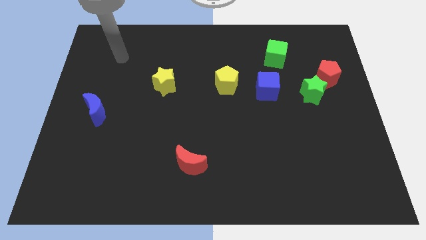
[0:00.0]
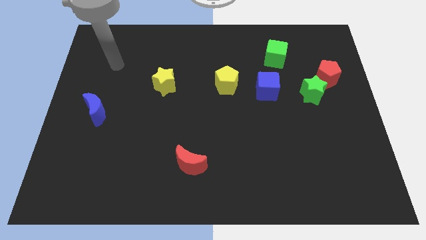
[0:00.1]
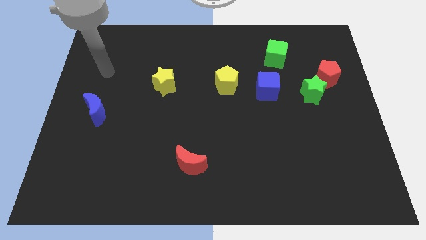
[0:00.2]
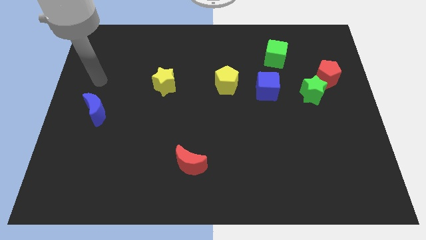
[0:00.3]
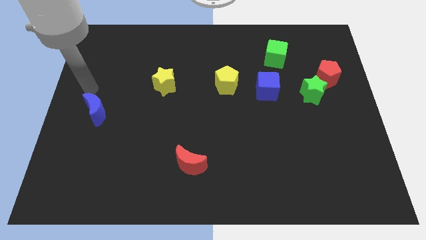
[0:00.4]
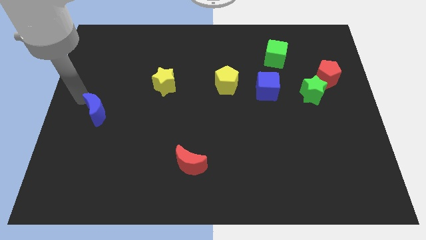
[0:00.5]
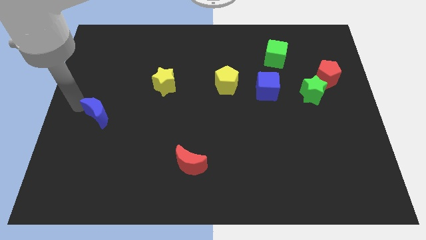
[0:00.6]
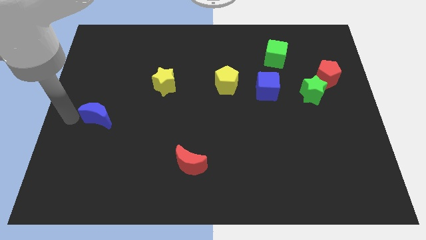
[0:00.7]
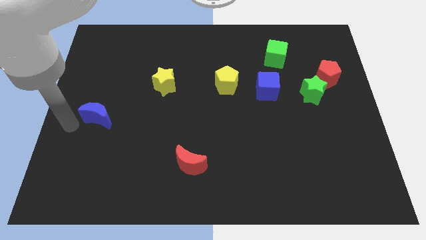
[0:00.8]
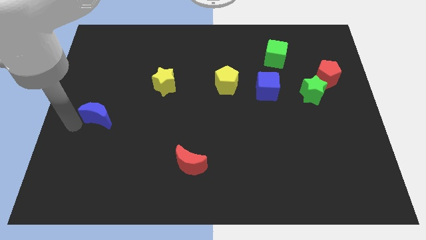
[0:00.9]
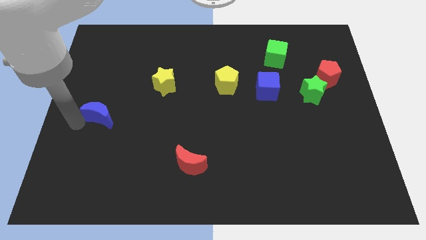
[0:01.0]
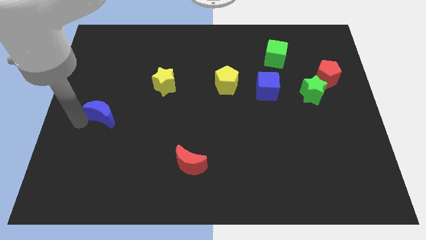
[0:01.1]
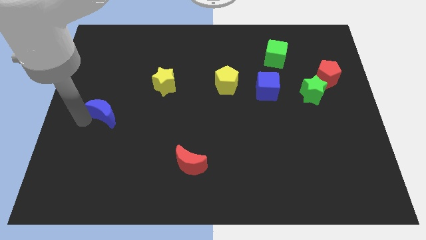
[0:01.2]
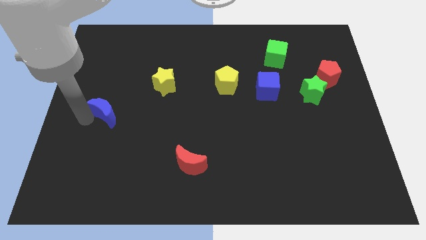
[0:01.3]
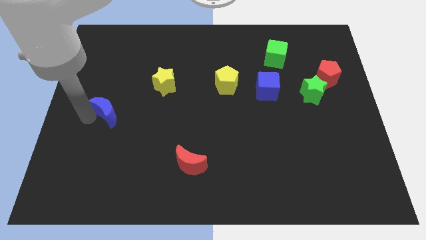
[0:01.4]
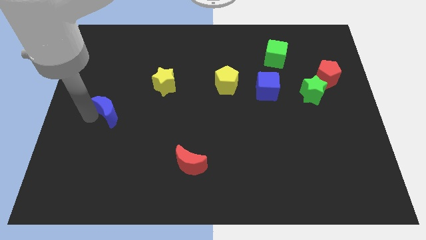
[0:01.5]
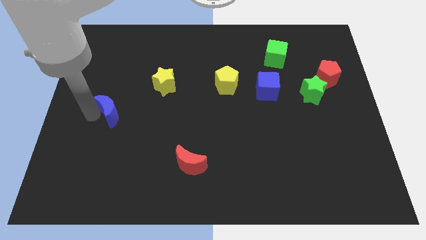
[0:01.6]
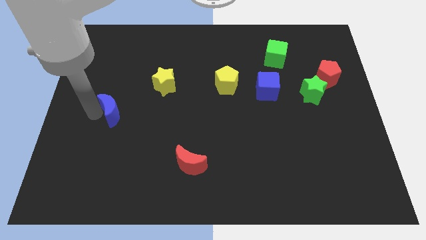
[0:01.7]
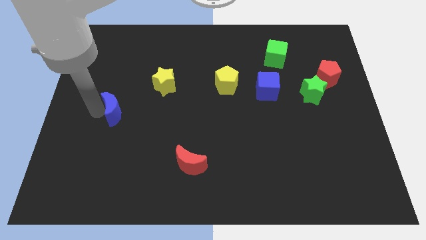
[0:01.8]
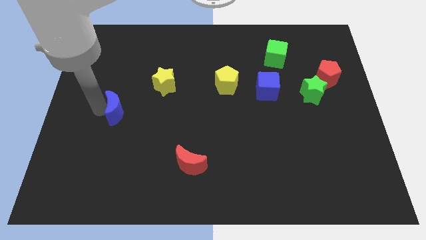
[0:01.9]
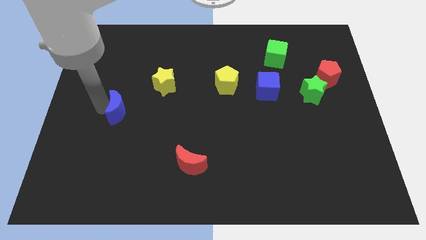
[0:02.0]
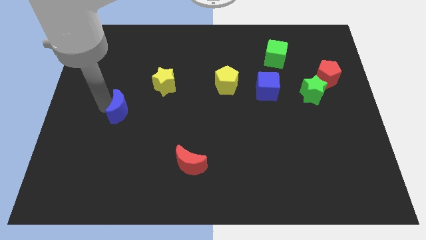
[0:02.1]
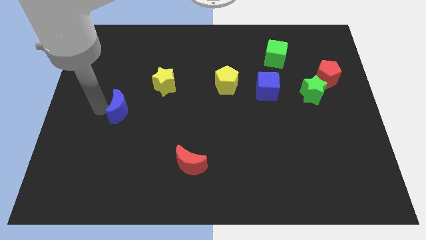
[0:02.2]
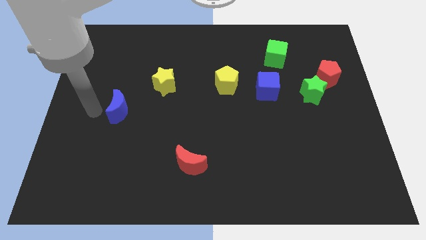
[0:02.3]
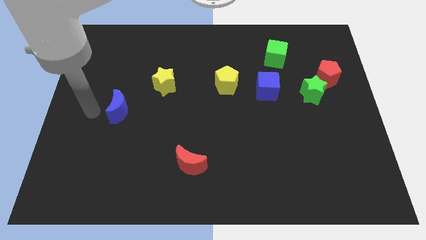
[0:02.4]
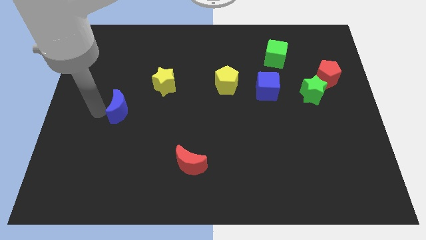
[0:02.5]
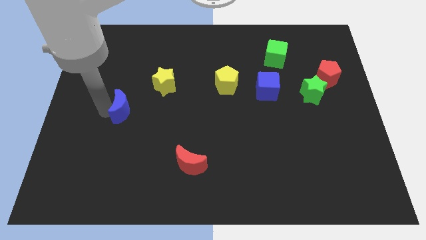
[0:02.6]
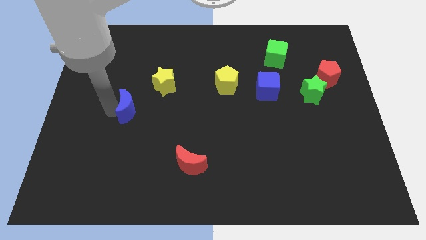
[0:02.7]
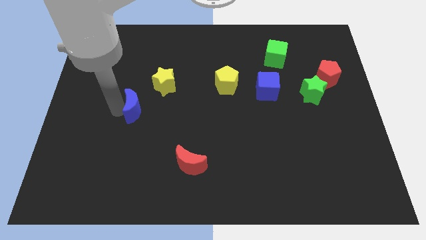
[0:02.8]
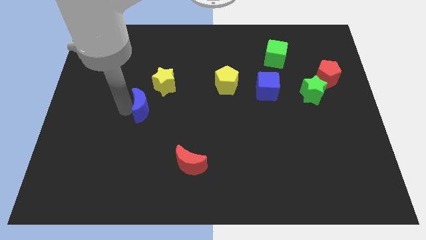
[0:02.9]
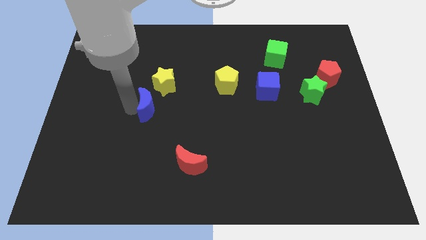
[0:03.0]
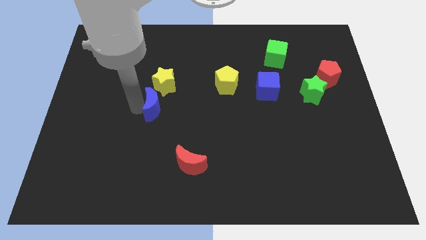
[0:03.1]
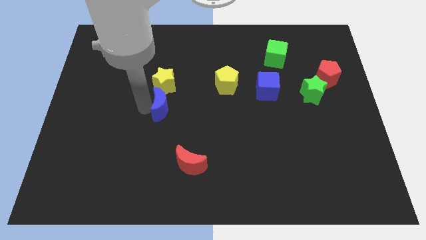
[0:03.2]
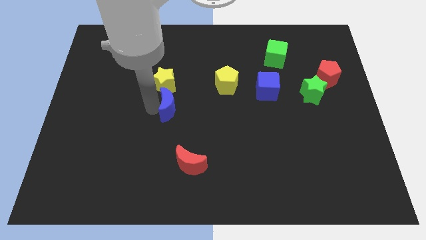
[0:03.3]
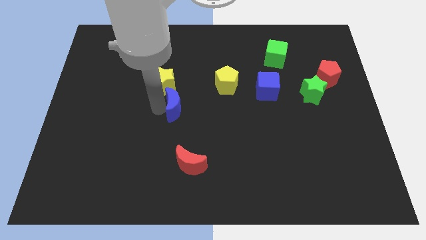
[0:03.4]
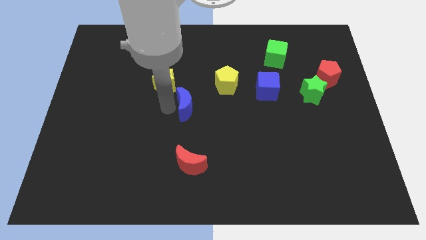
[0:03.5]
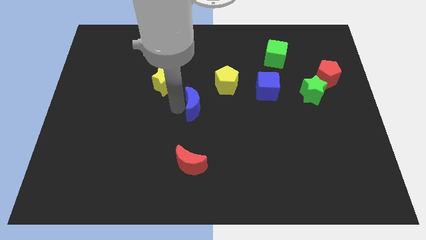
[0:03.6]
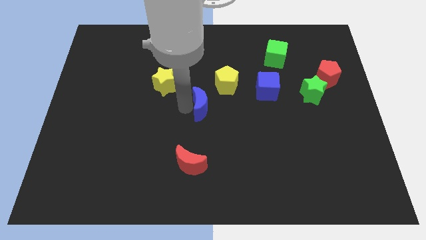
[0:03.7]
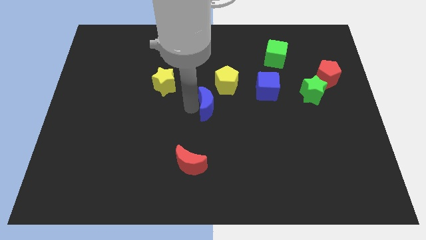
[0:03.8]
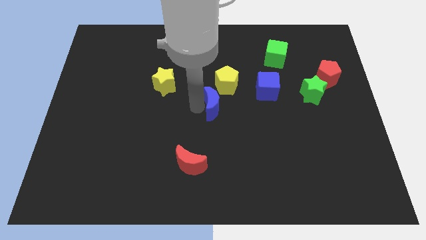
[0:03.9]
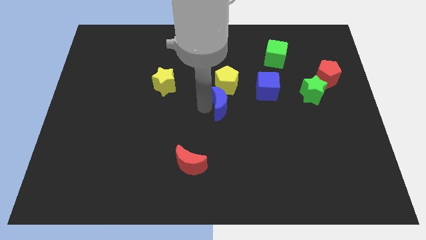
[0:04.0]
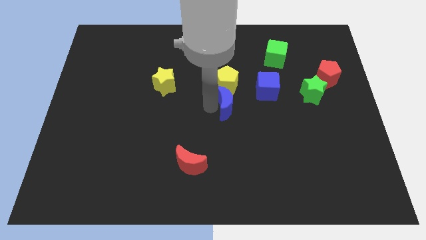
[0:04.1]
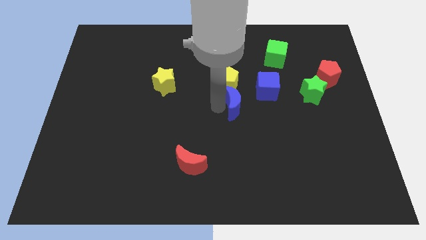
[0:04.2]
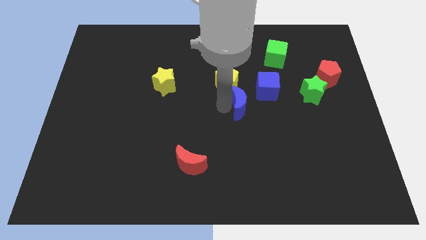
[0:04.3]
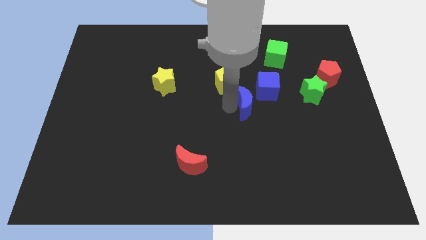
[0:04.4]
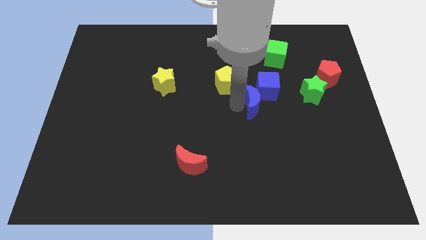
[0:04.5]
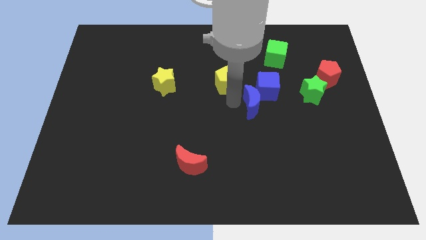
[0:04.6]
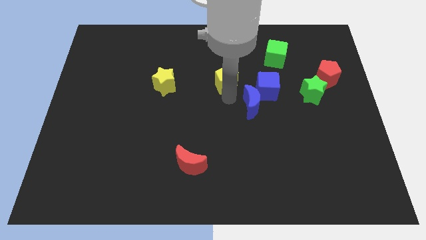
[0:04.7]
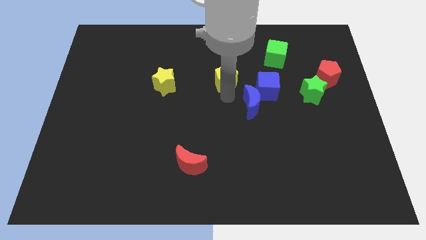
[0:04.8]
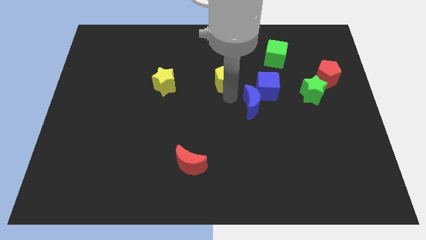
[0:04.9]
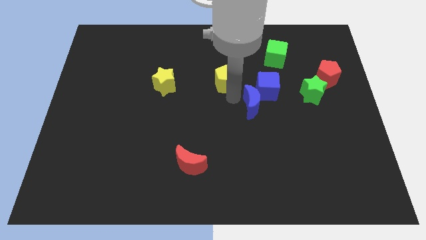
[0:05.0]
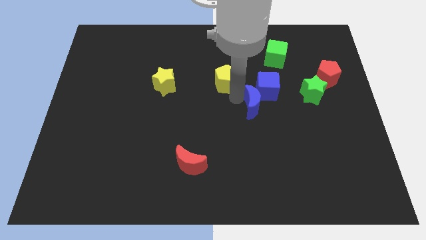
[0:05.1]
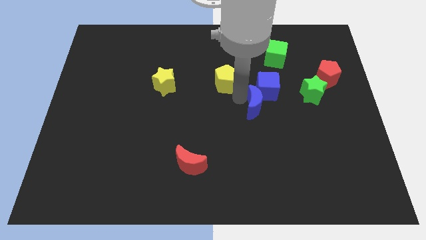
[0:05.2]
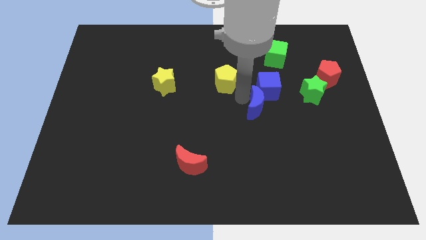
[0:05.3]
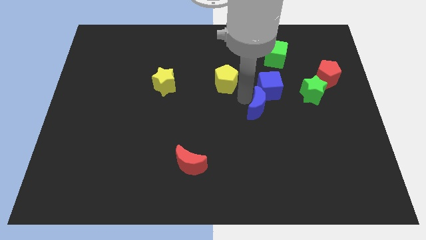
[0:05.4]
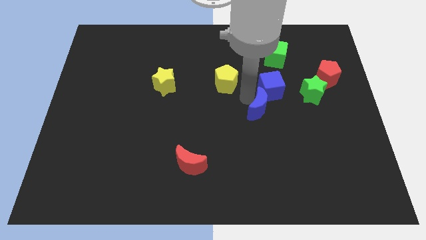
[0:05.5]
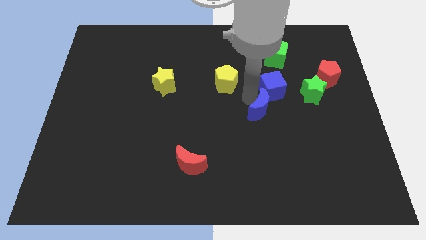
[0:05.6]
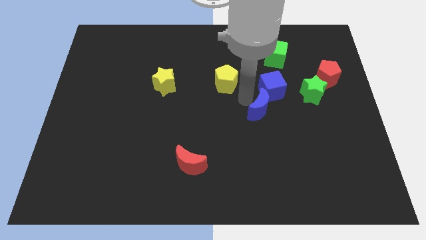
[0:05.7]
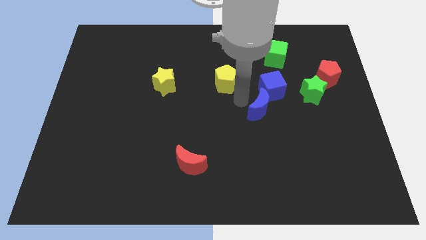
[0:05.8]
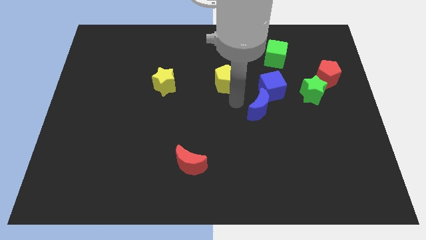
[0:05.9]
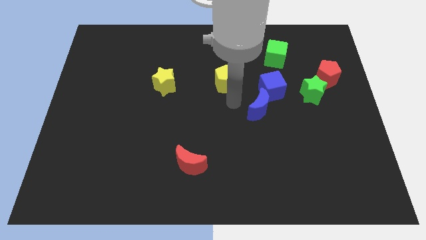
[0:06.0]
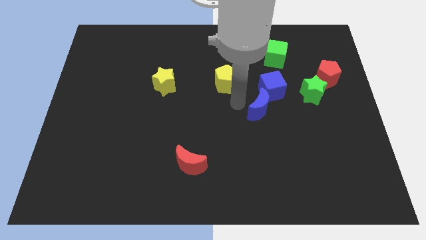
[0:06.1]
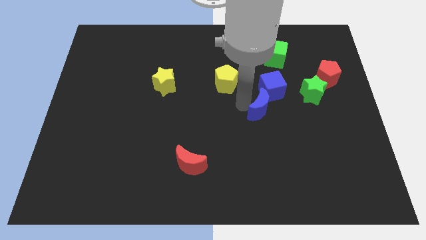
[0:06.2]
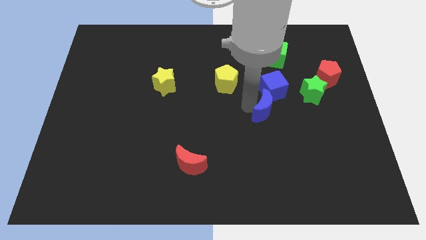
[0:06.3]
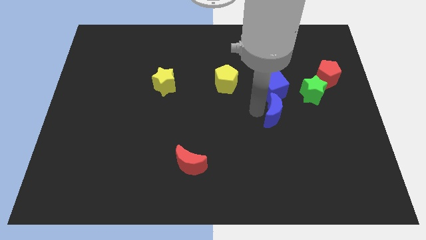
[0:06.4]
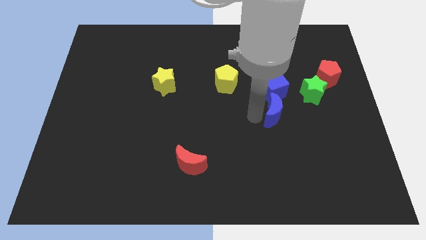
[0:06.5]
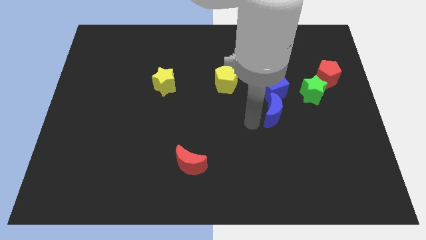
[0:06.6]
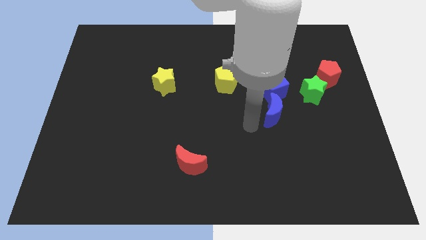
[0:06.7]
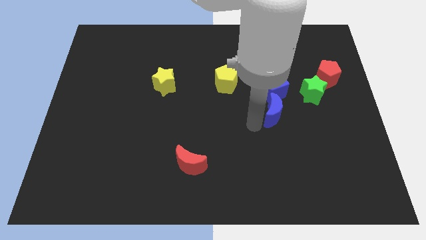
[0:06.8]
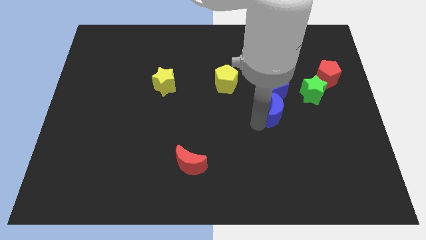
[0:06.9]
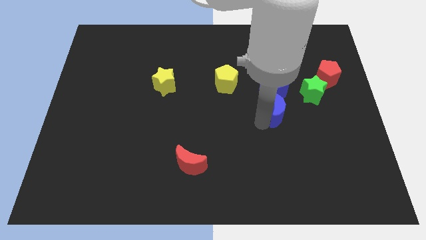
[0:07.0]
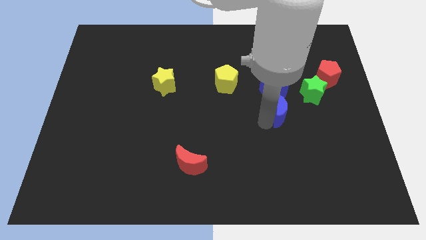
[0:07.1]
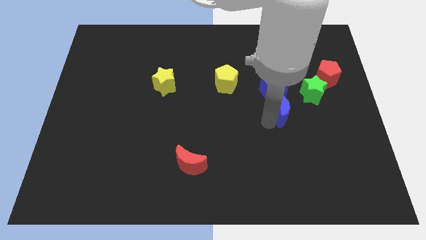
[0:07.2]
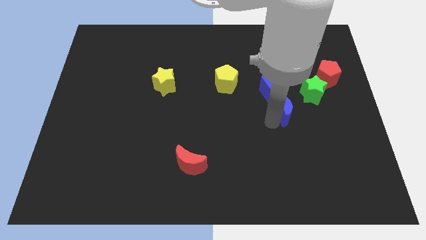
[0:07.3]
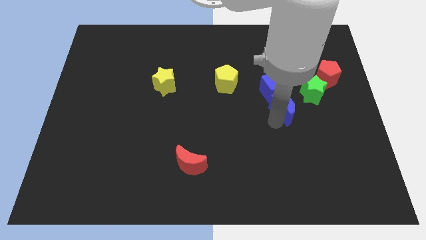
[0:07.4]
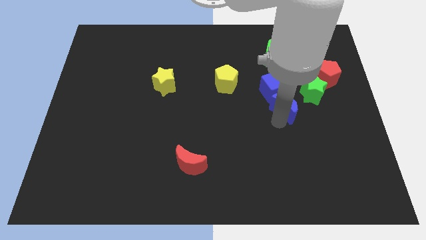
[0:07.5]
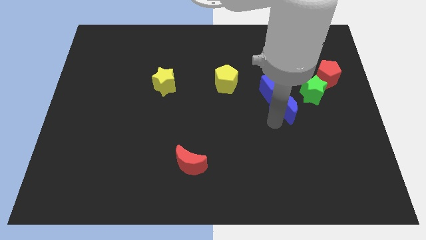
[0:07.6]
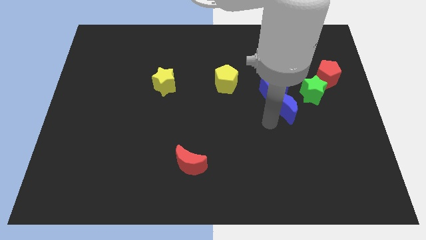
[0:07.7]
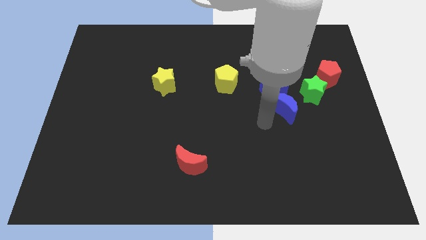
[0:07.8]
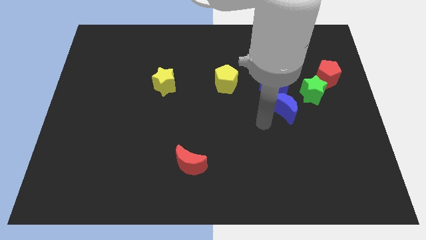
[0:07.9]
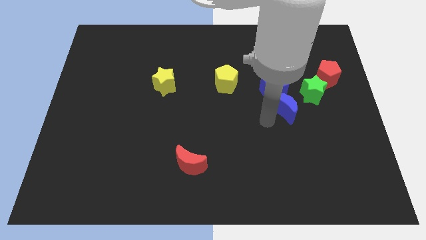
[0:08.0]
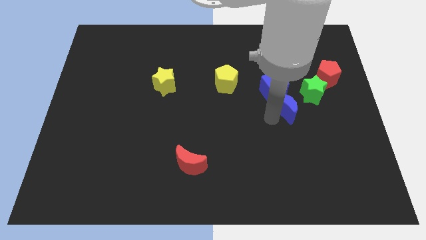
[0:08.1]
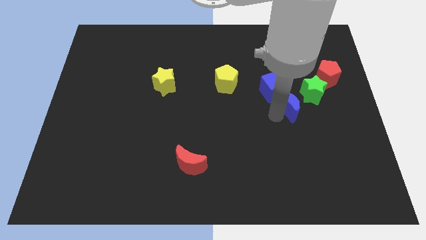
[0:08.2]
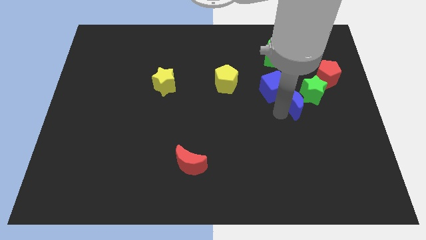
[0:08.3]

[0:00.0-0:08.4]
push the blue moon to the green star
